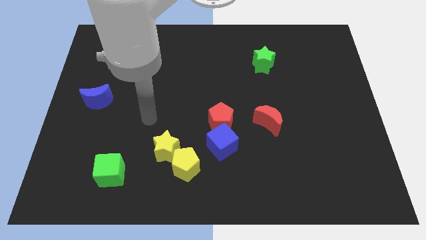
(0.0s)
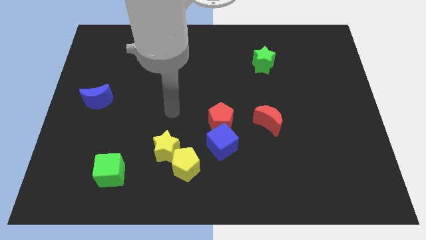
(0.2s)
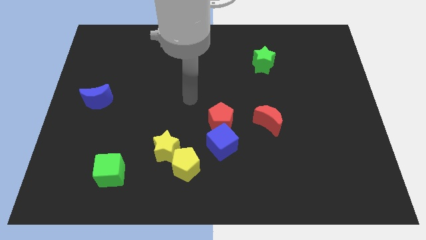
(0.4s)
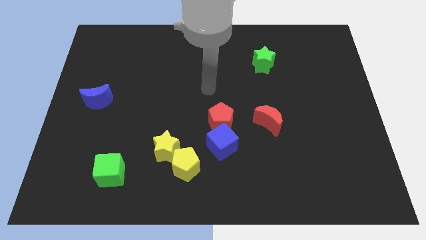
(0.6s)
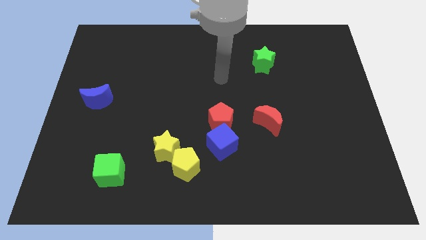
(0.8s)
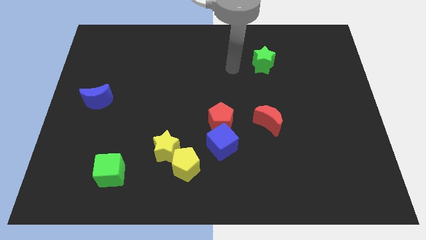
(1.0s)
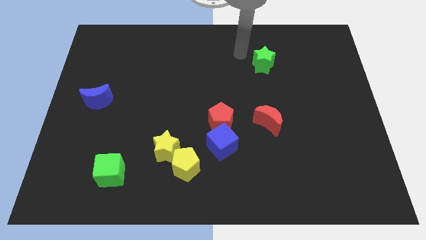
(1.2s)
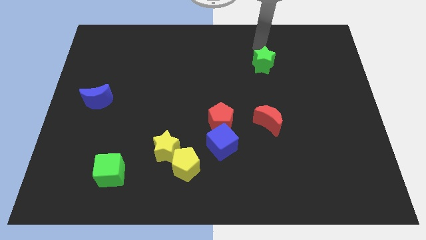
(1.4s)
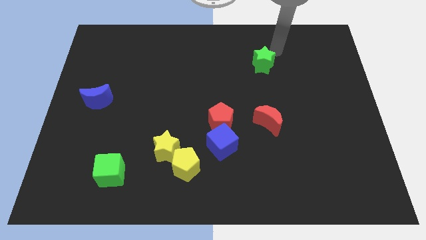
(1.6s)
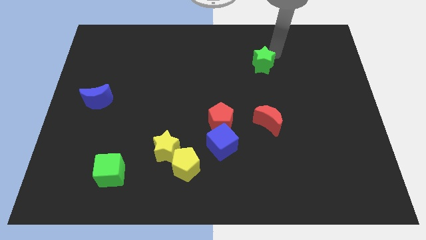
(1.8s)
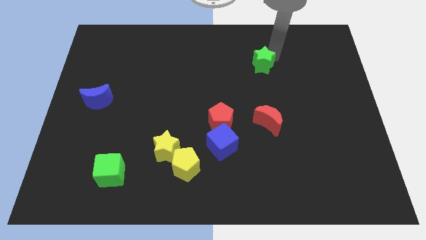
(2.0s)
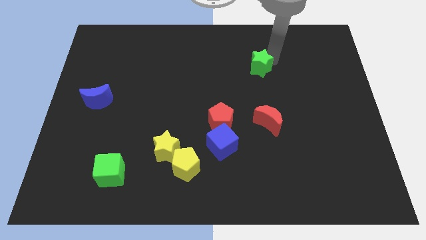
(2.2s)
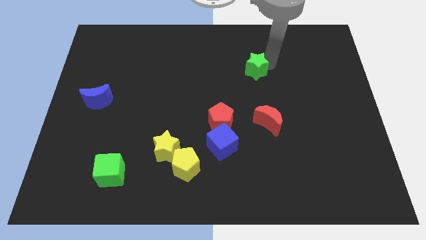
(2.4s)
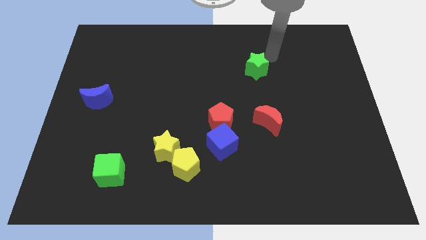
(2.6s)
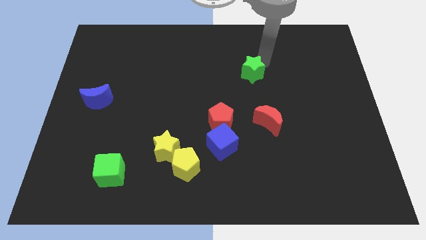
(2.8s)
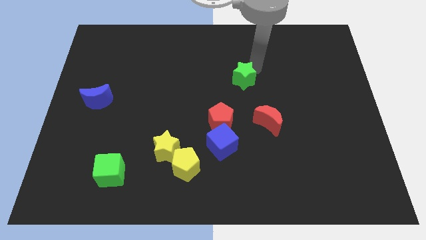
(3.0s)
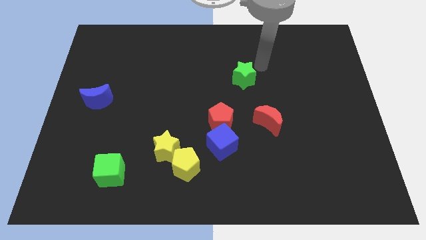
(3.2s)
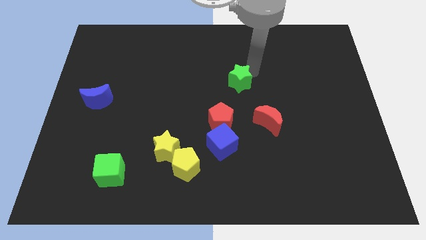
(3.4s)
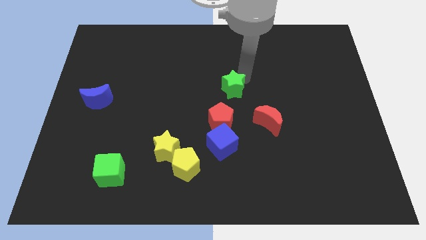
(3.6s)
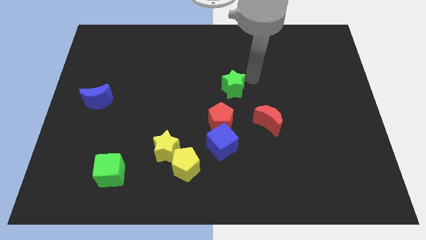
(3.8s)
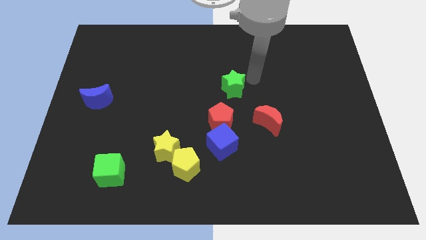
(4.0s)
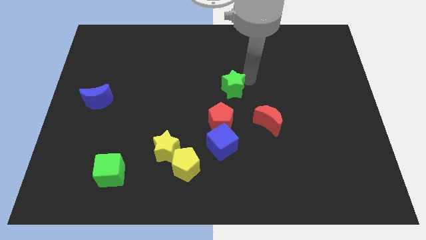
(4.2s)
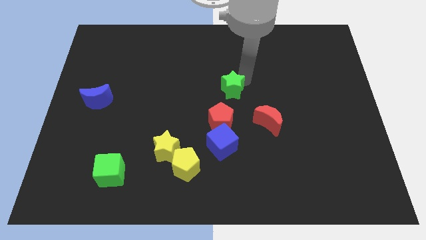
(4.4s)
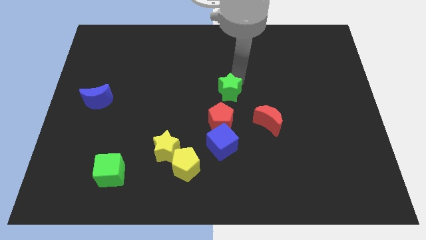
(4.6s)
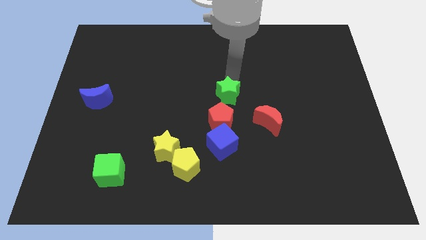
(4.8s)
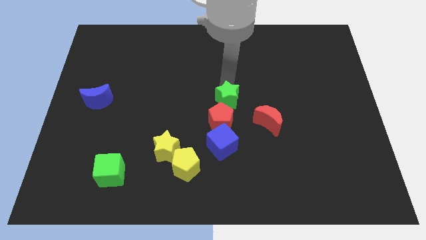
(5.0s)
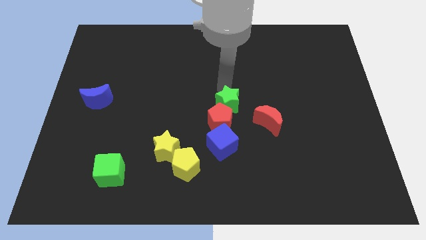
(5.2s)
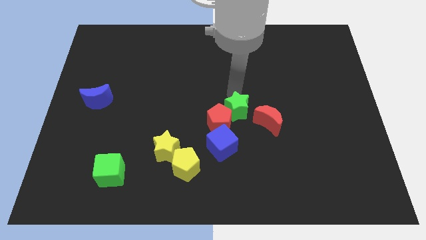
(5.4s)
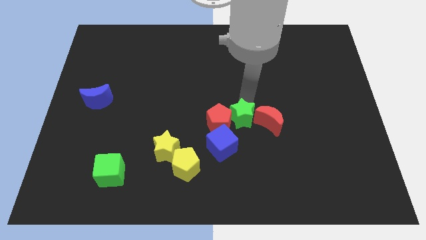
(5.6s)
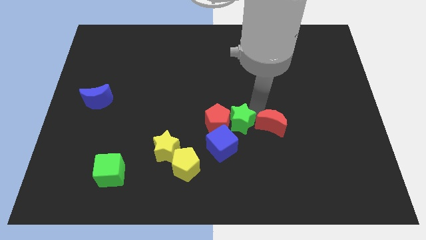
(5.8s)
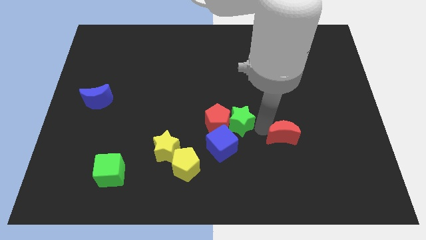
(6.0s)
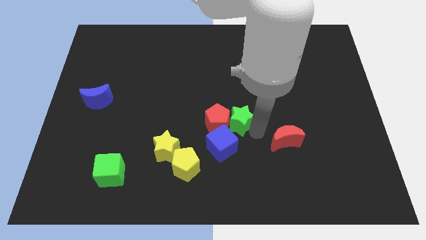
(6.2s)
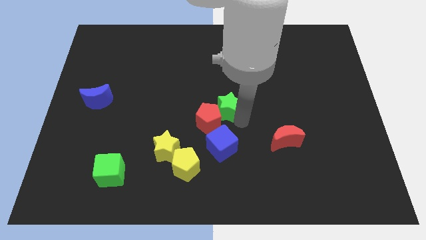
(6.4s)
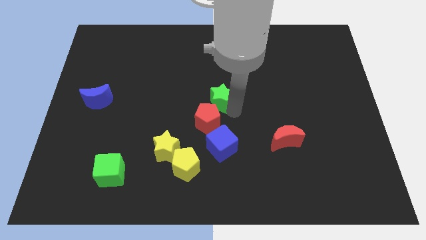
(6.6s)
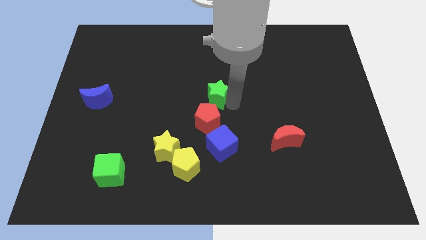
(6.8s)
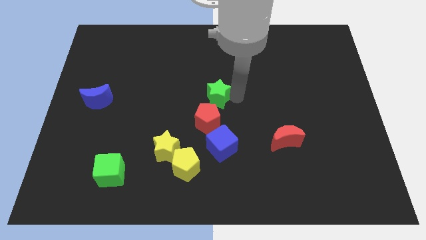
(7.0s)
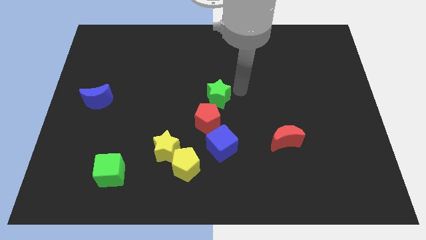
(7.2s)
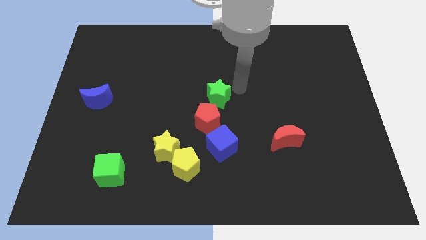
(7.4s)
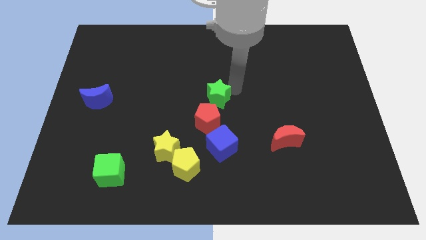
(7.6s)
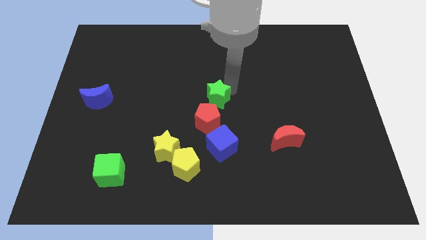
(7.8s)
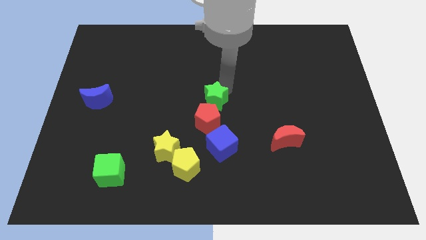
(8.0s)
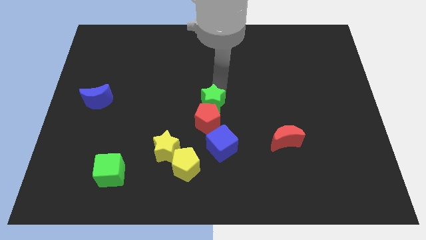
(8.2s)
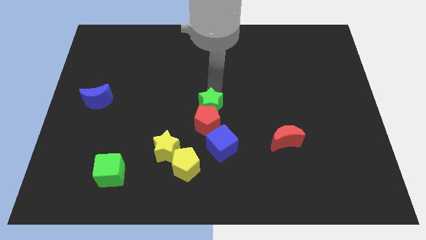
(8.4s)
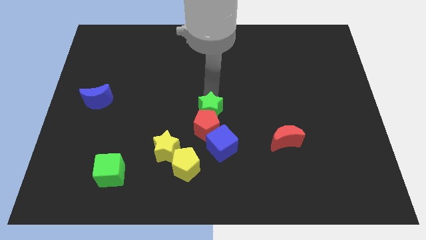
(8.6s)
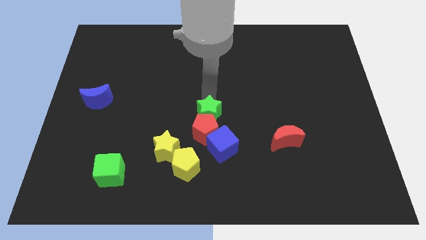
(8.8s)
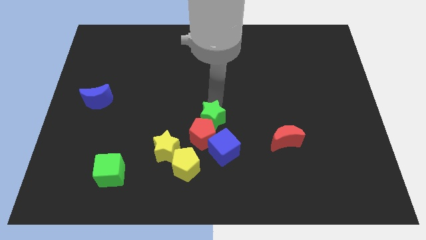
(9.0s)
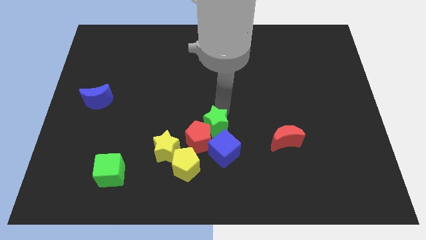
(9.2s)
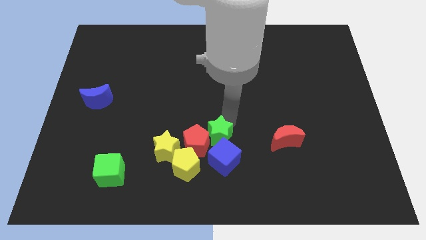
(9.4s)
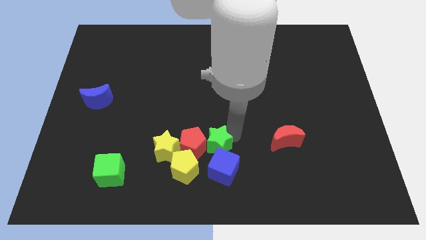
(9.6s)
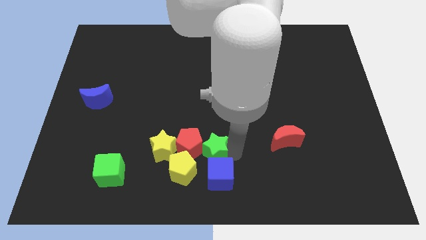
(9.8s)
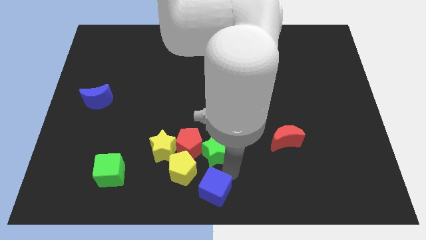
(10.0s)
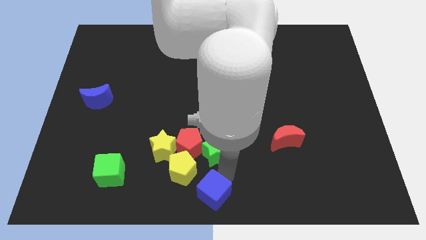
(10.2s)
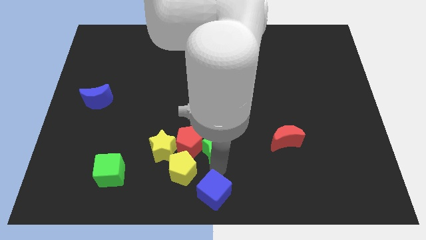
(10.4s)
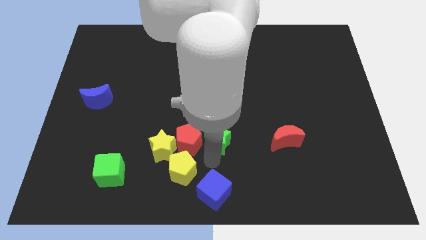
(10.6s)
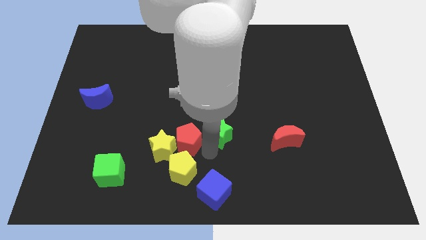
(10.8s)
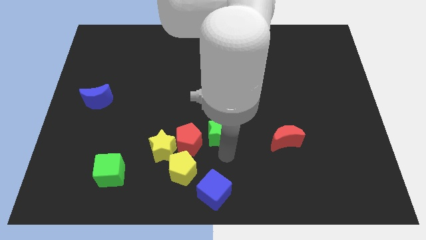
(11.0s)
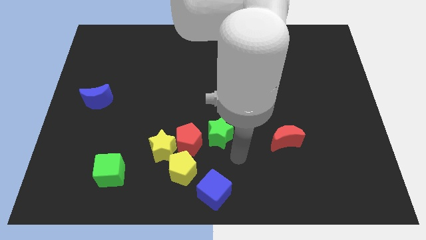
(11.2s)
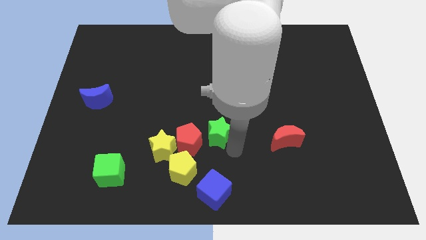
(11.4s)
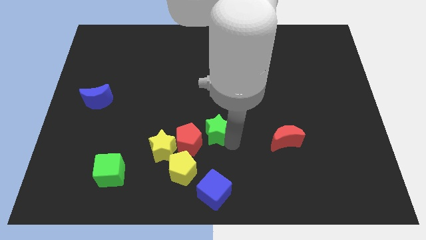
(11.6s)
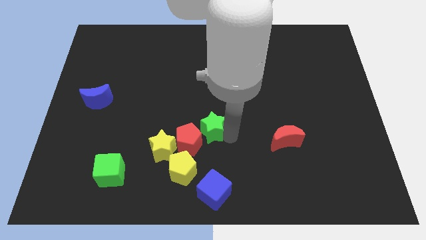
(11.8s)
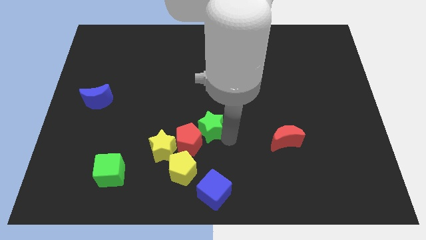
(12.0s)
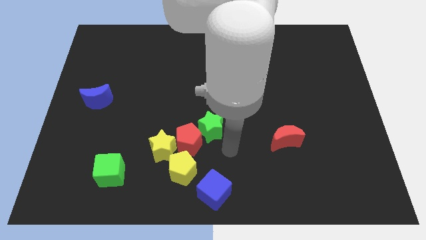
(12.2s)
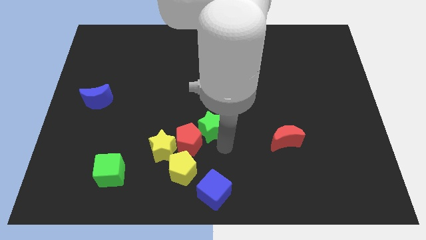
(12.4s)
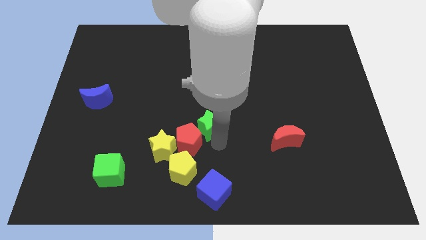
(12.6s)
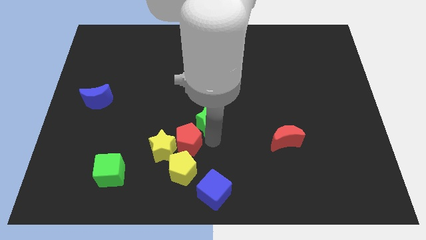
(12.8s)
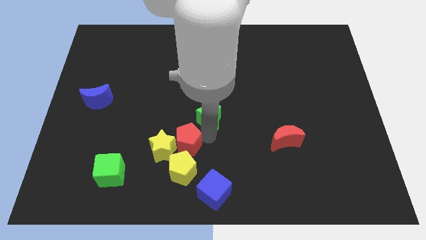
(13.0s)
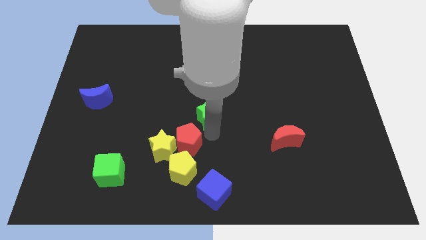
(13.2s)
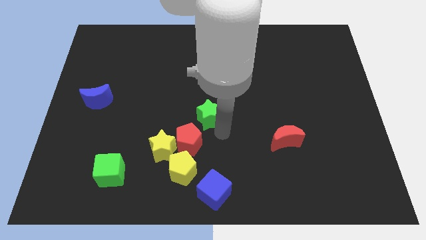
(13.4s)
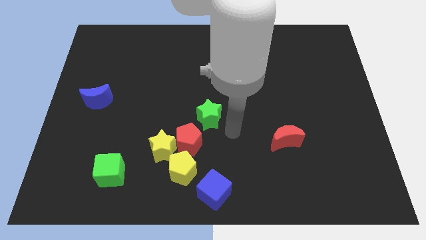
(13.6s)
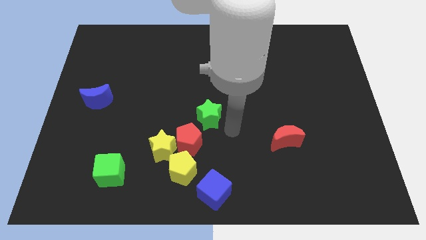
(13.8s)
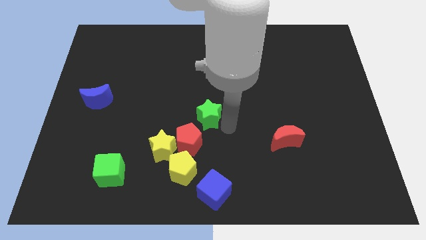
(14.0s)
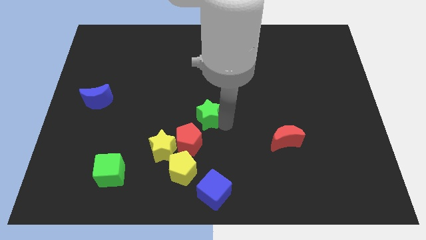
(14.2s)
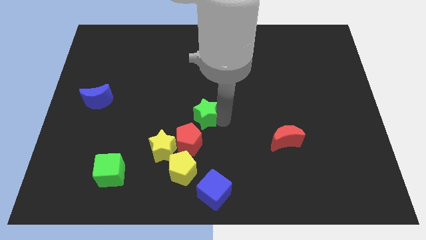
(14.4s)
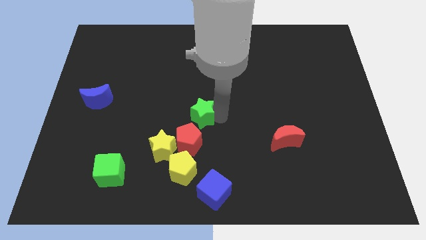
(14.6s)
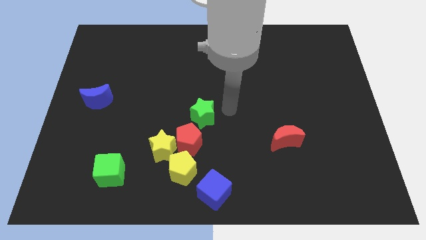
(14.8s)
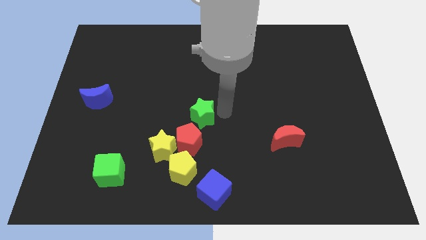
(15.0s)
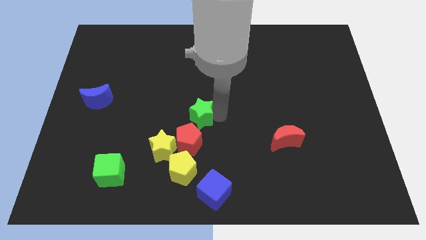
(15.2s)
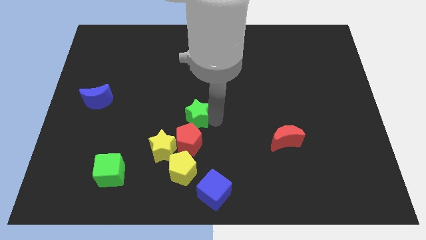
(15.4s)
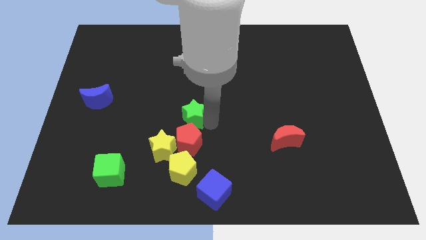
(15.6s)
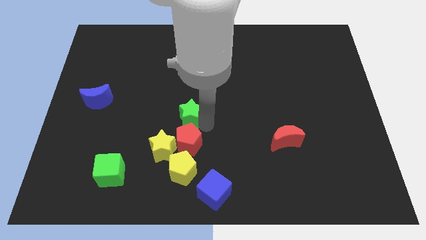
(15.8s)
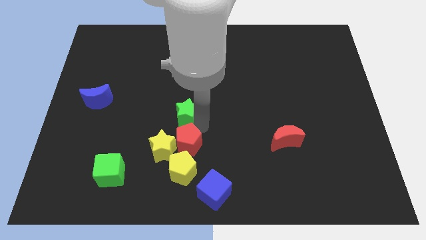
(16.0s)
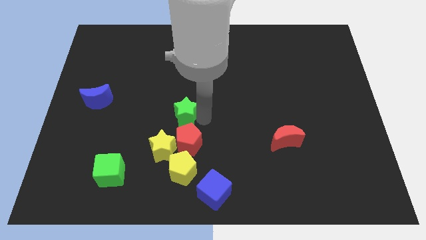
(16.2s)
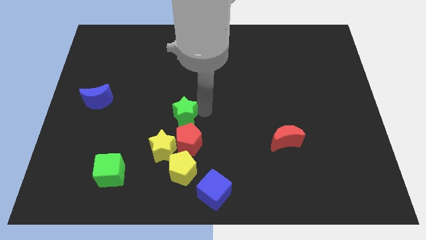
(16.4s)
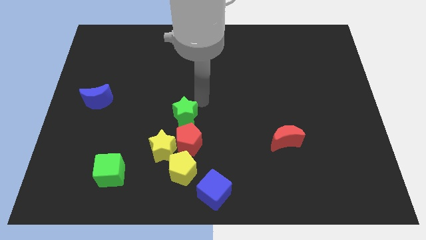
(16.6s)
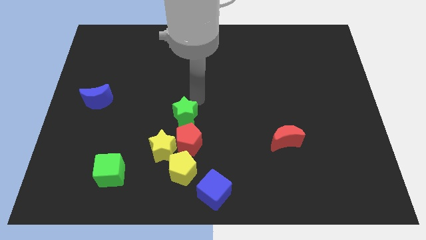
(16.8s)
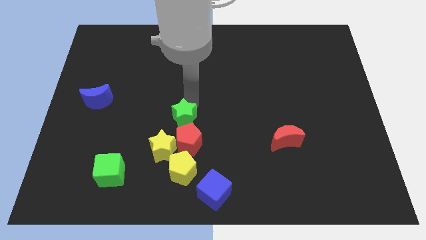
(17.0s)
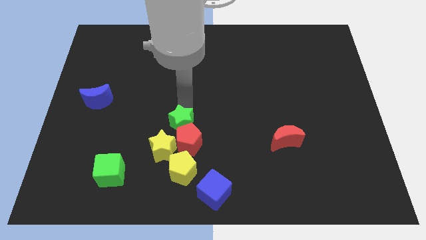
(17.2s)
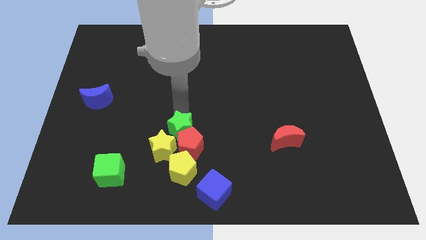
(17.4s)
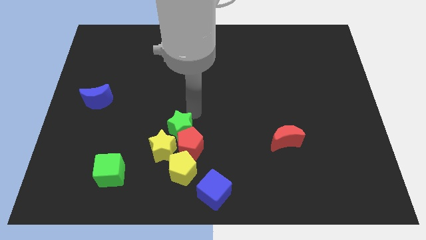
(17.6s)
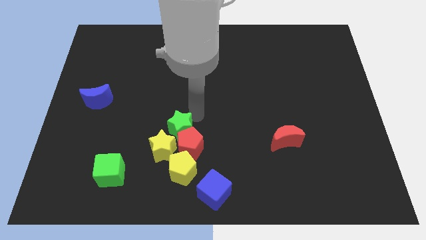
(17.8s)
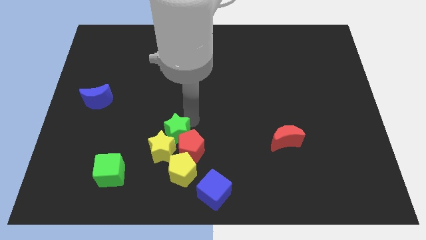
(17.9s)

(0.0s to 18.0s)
push the green star close to the yellow star
